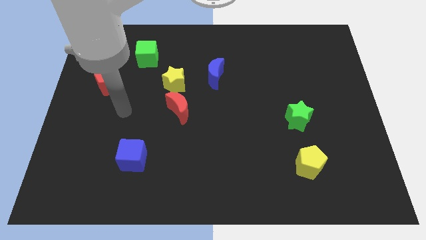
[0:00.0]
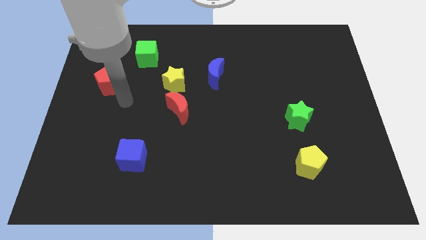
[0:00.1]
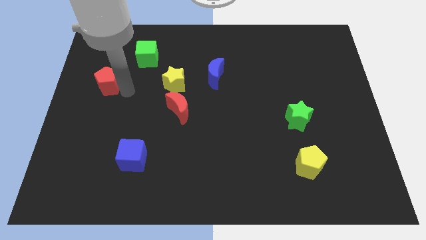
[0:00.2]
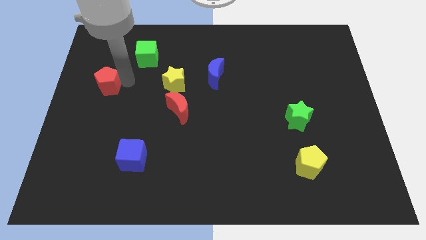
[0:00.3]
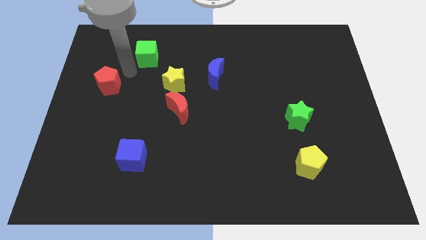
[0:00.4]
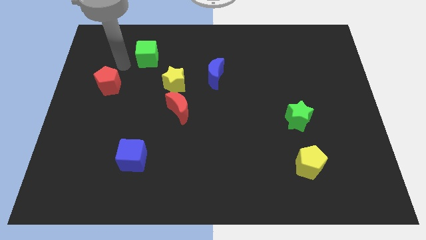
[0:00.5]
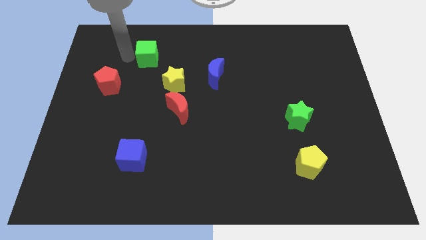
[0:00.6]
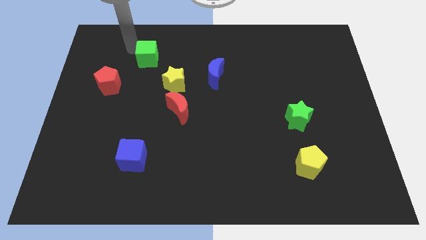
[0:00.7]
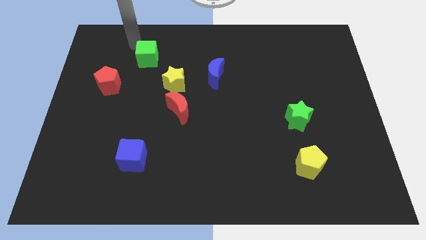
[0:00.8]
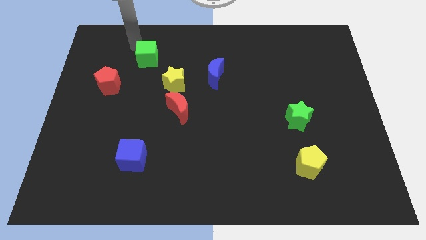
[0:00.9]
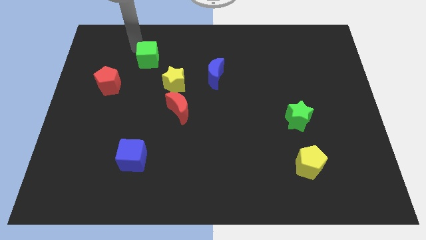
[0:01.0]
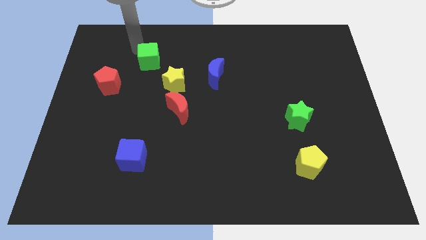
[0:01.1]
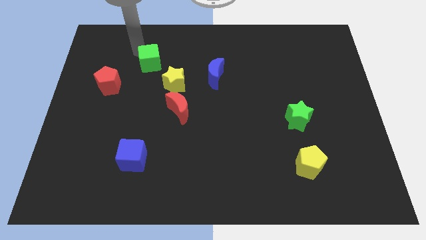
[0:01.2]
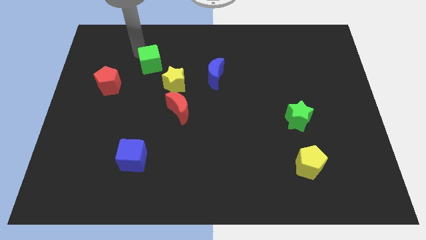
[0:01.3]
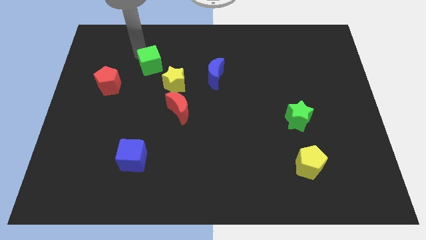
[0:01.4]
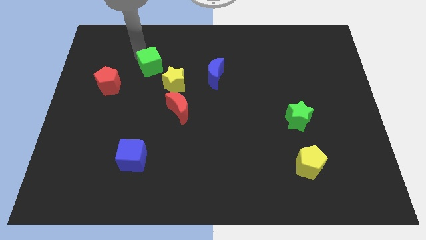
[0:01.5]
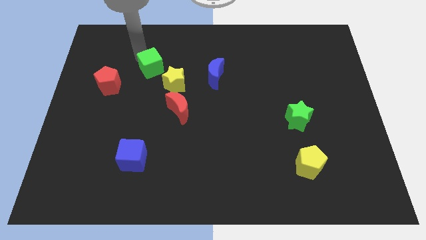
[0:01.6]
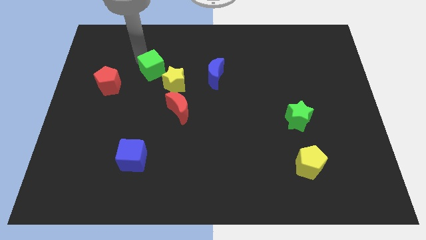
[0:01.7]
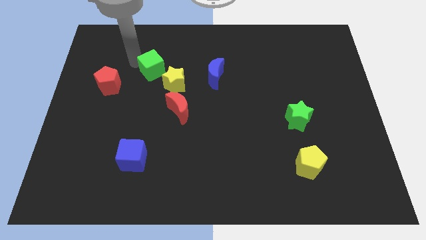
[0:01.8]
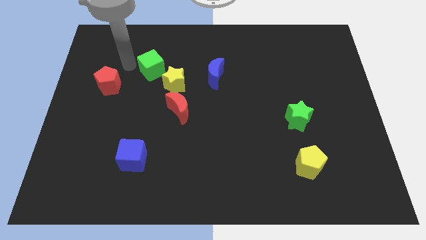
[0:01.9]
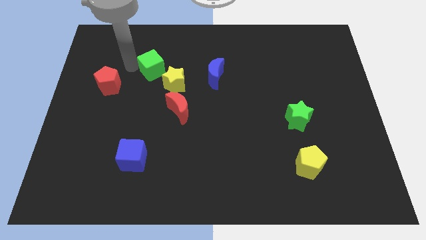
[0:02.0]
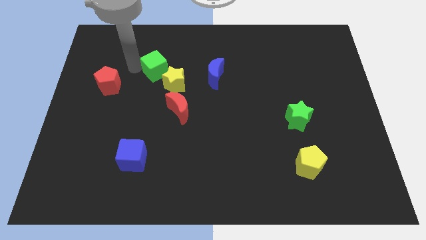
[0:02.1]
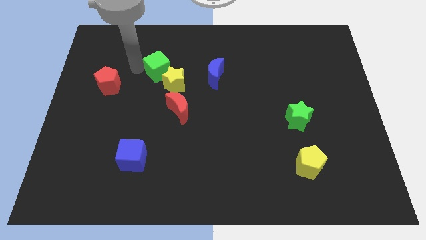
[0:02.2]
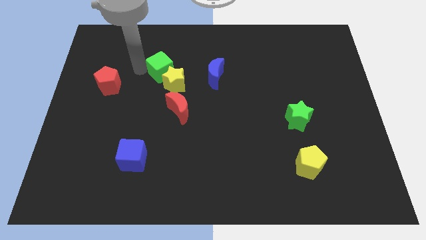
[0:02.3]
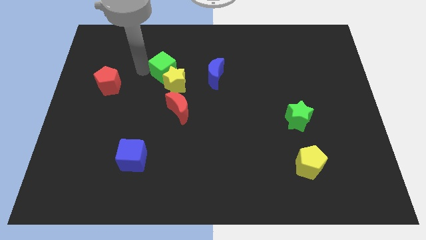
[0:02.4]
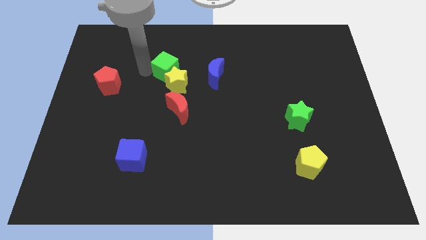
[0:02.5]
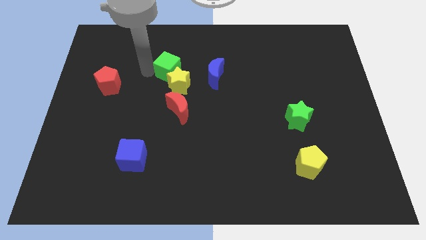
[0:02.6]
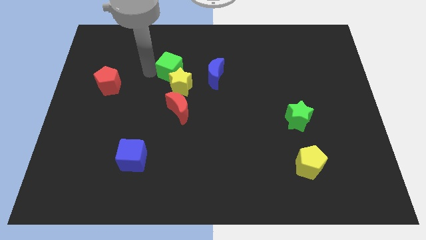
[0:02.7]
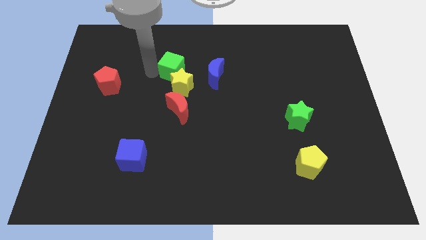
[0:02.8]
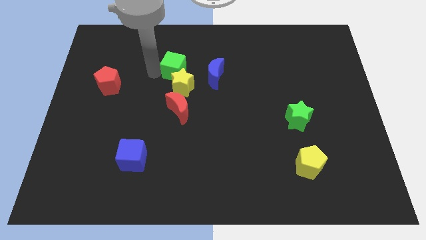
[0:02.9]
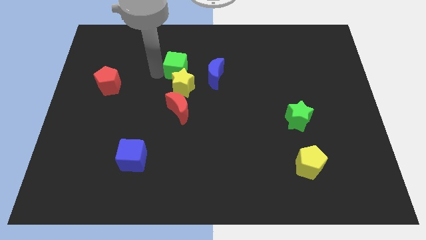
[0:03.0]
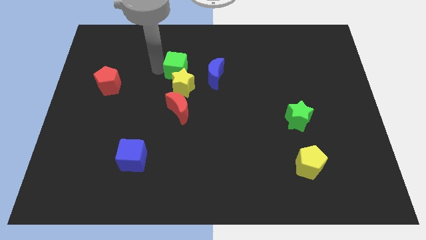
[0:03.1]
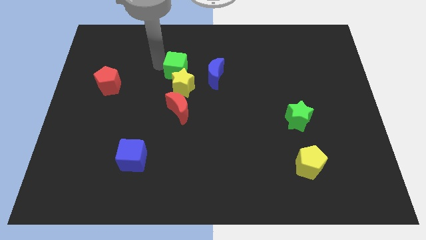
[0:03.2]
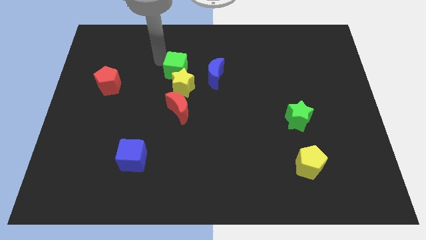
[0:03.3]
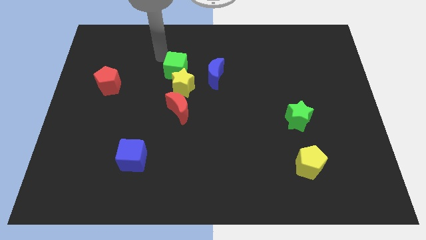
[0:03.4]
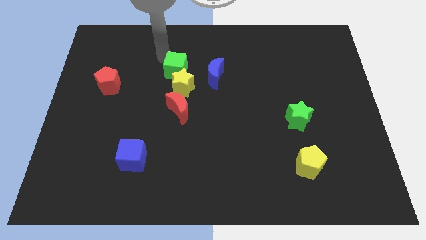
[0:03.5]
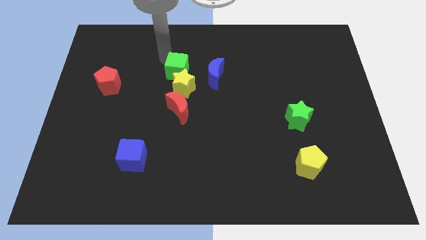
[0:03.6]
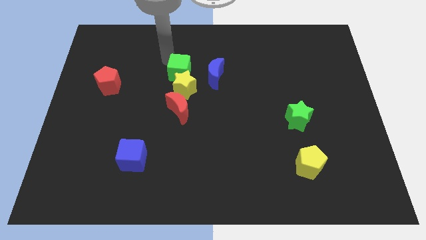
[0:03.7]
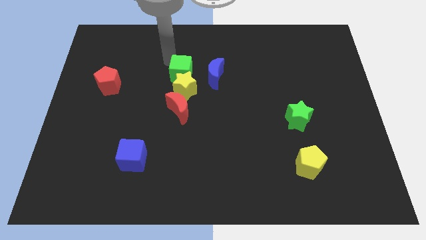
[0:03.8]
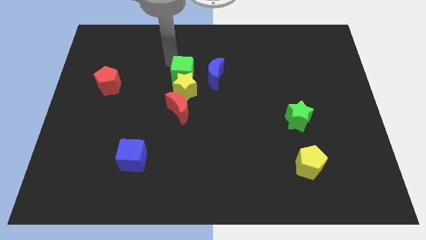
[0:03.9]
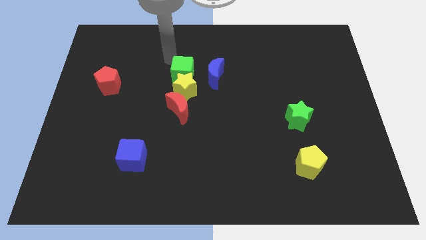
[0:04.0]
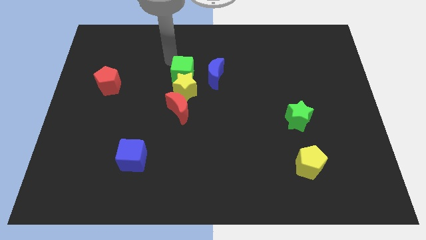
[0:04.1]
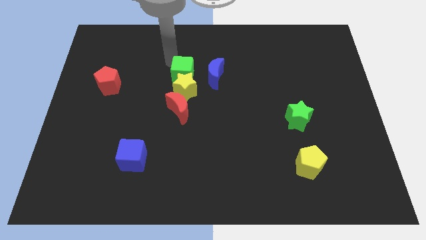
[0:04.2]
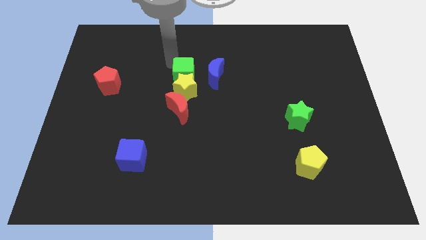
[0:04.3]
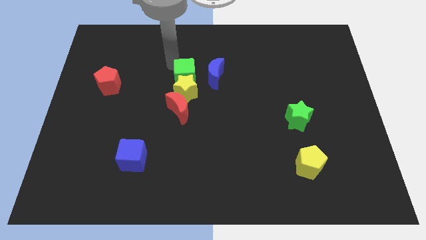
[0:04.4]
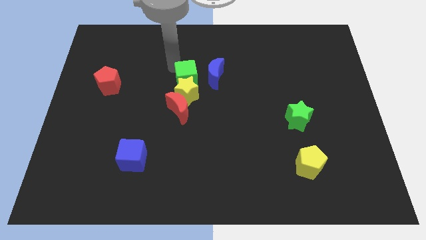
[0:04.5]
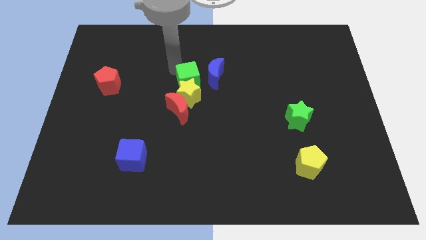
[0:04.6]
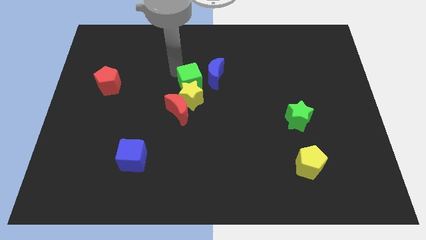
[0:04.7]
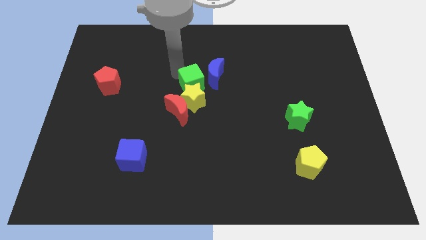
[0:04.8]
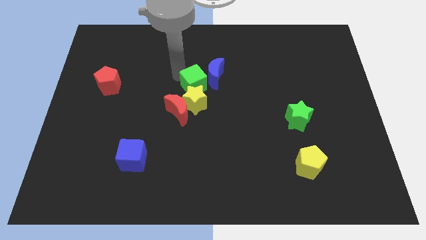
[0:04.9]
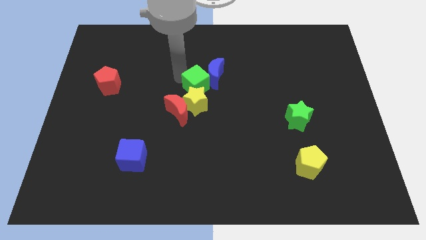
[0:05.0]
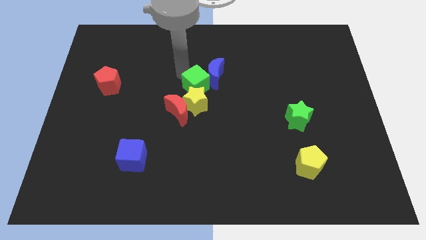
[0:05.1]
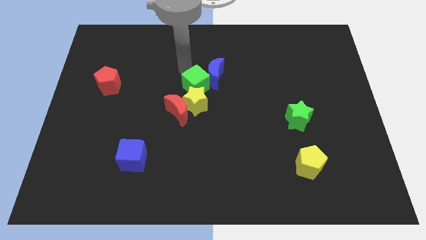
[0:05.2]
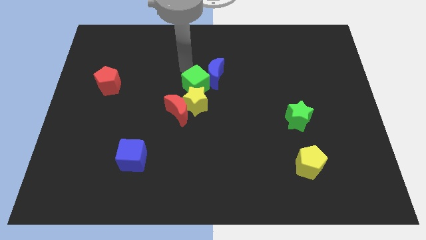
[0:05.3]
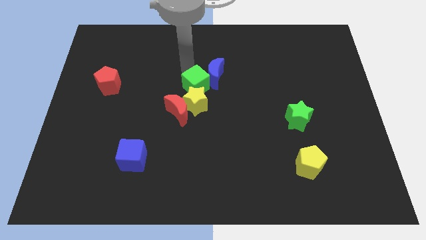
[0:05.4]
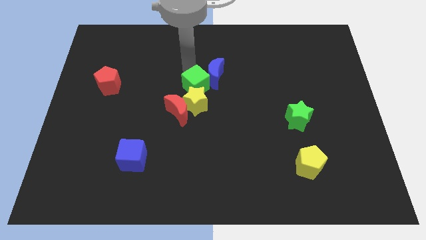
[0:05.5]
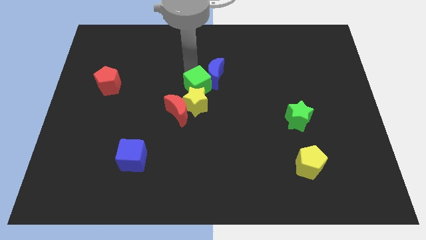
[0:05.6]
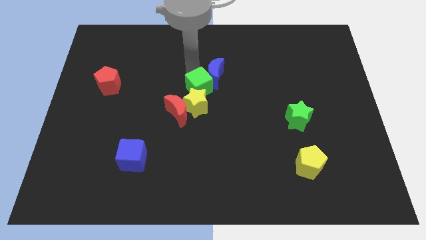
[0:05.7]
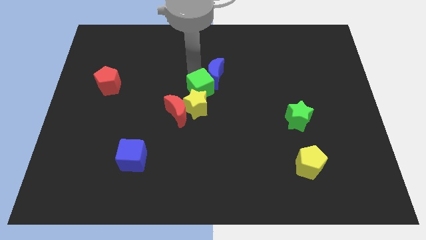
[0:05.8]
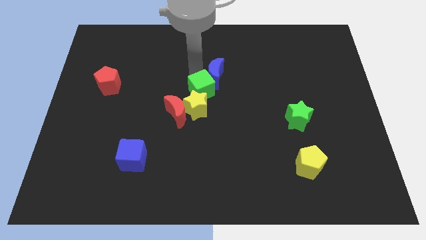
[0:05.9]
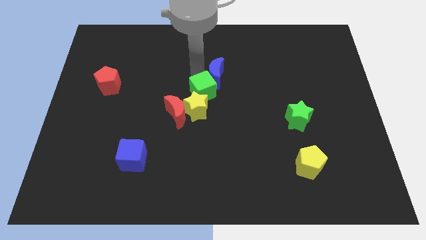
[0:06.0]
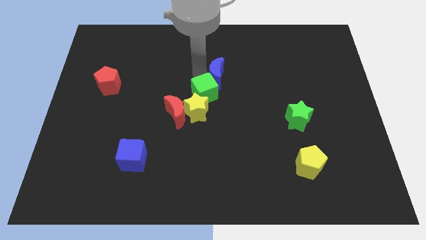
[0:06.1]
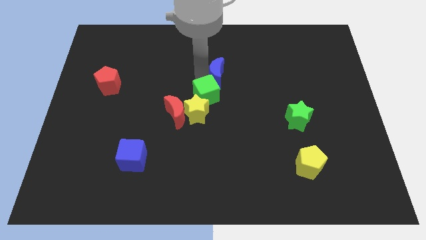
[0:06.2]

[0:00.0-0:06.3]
move the green cube downwards and right

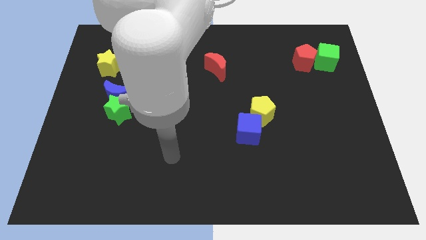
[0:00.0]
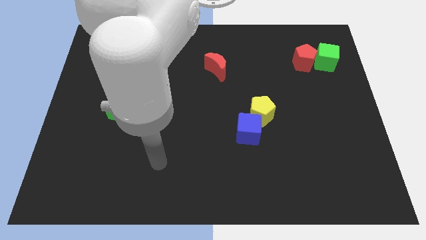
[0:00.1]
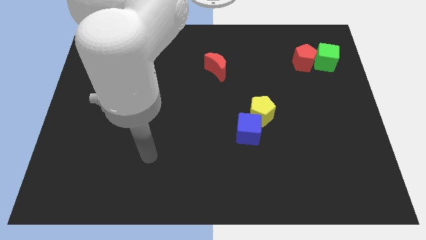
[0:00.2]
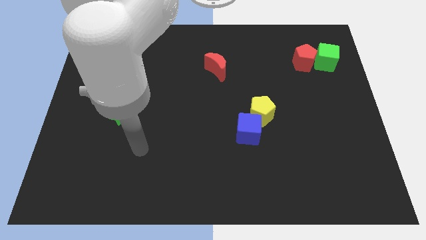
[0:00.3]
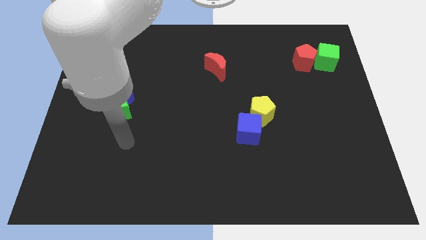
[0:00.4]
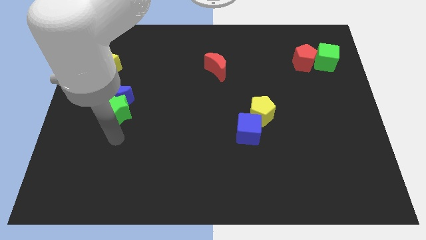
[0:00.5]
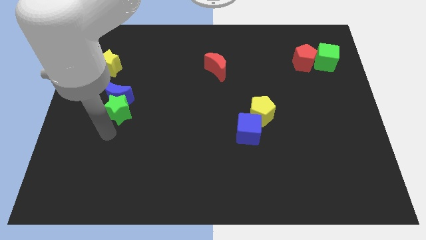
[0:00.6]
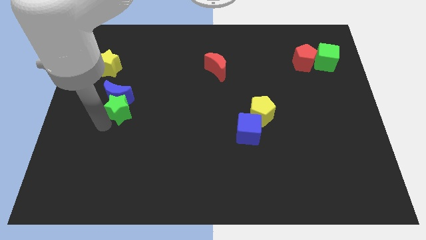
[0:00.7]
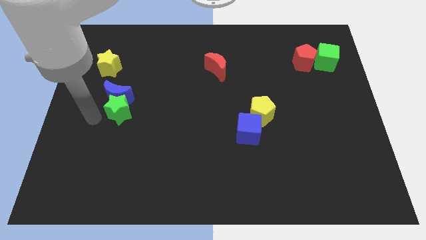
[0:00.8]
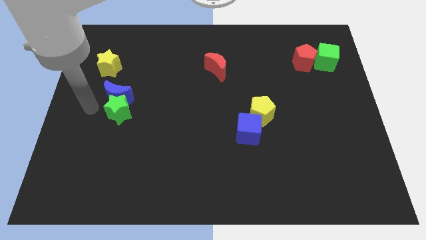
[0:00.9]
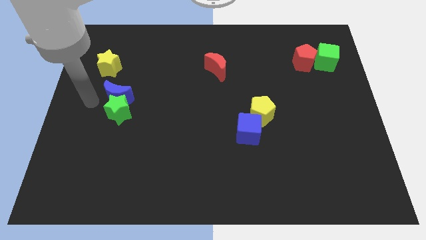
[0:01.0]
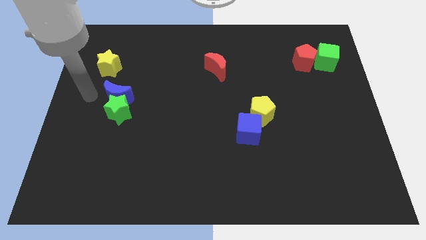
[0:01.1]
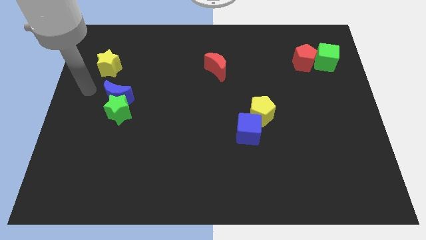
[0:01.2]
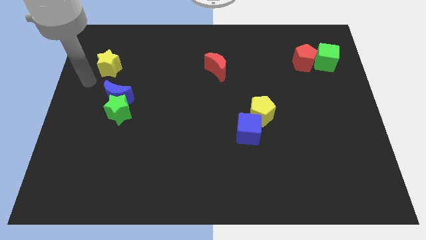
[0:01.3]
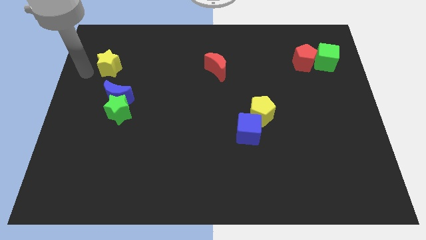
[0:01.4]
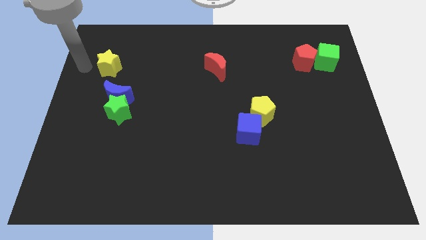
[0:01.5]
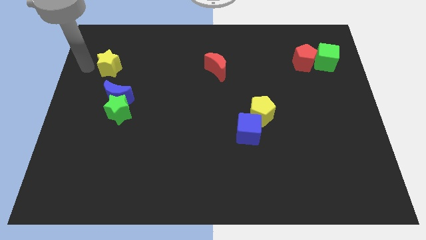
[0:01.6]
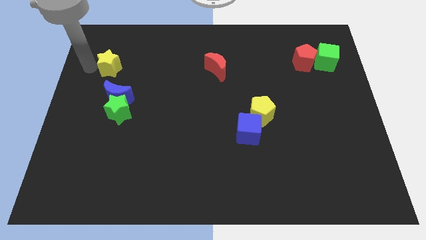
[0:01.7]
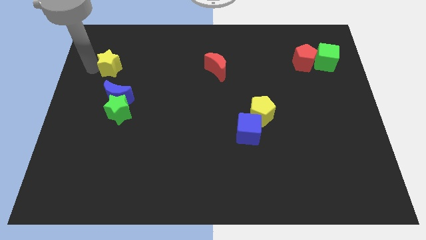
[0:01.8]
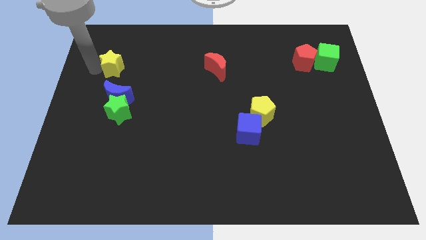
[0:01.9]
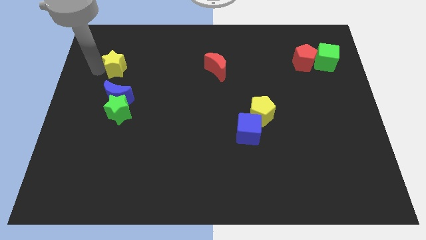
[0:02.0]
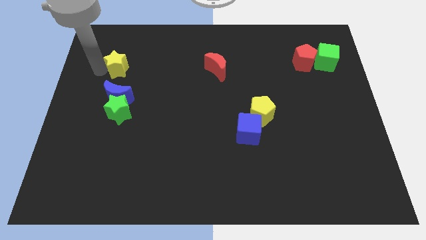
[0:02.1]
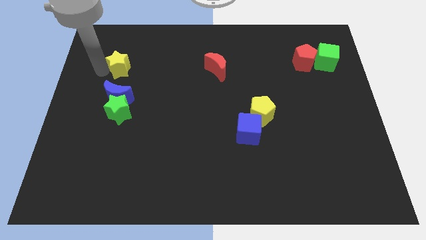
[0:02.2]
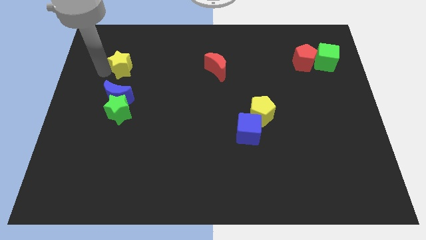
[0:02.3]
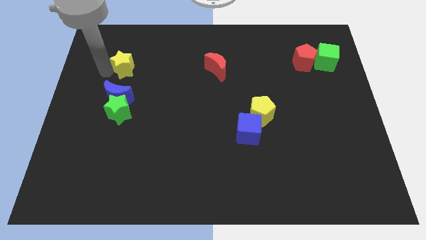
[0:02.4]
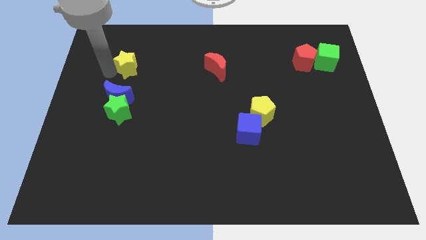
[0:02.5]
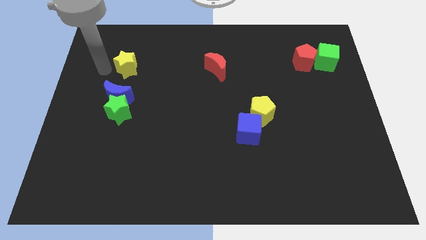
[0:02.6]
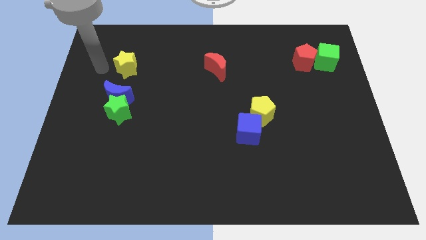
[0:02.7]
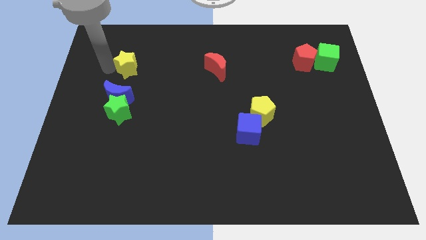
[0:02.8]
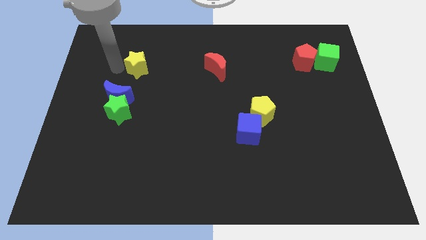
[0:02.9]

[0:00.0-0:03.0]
slightly slide the yellow star right
